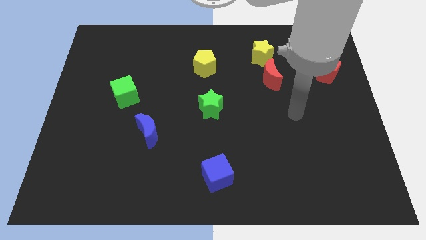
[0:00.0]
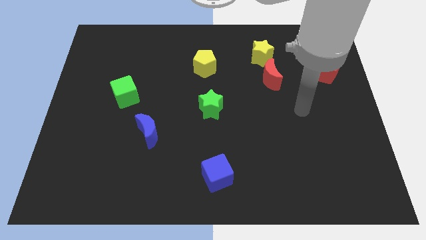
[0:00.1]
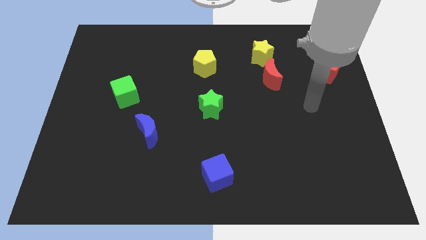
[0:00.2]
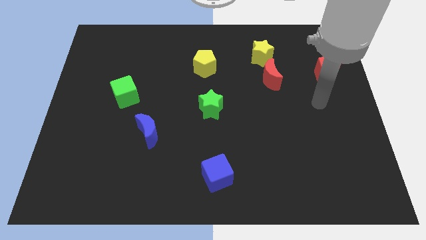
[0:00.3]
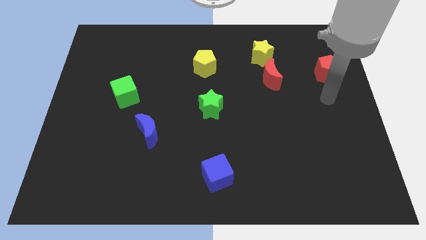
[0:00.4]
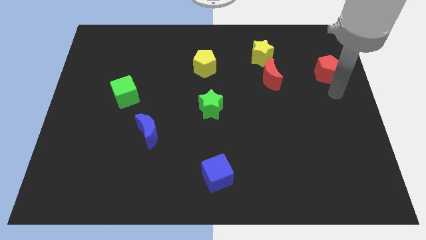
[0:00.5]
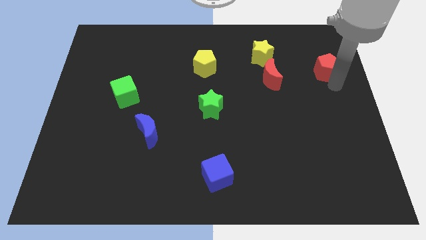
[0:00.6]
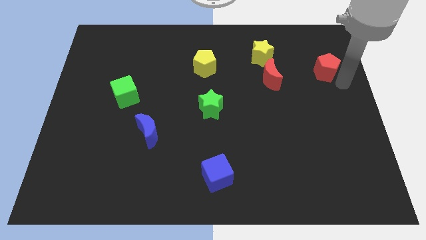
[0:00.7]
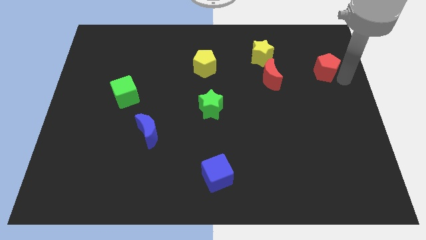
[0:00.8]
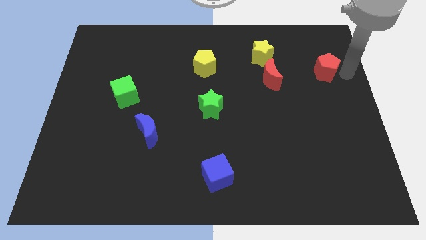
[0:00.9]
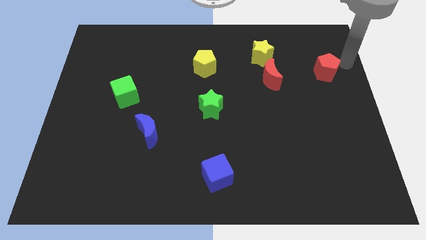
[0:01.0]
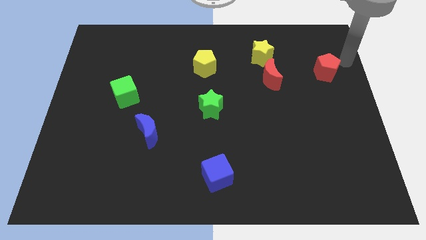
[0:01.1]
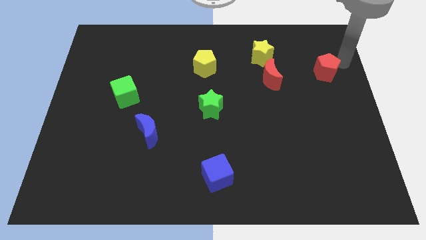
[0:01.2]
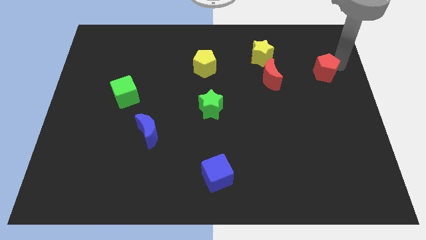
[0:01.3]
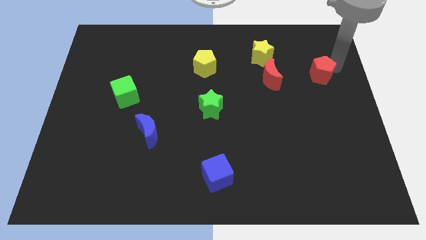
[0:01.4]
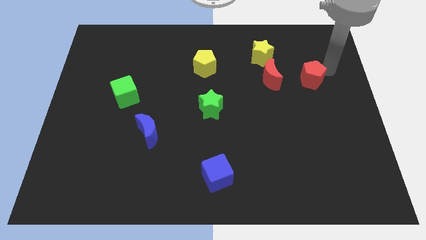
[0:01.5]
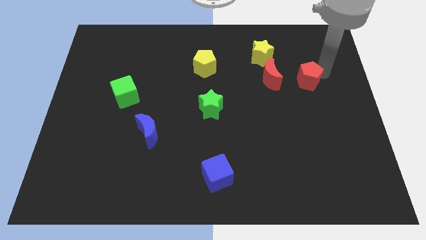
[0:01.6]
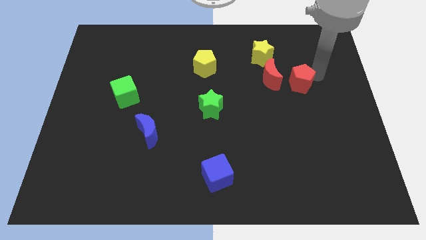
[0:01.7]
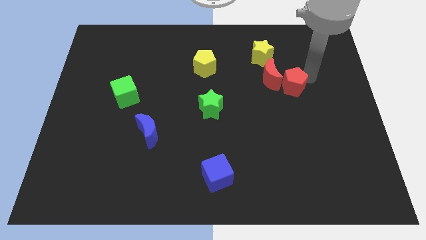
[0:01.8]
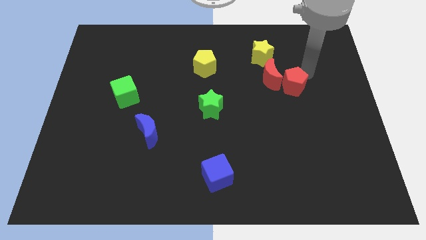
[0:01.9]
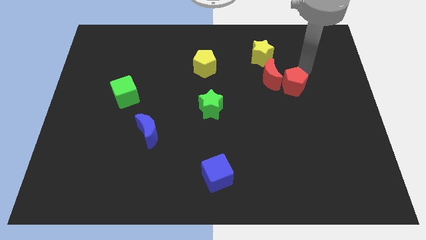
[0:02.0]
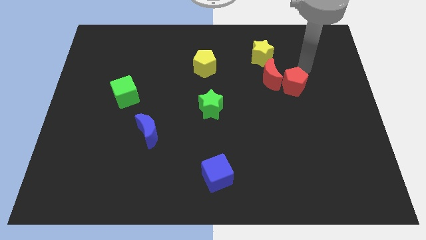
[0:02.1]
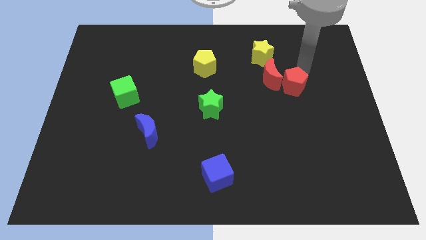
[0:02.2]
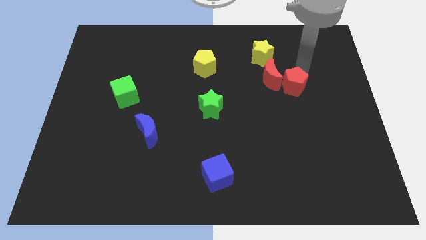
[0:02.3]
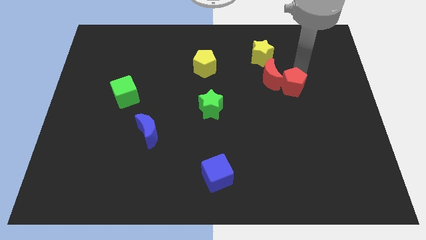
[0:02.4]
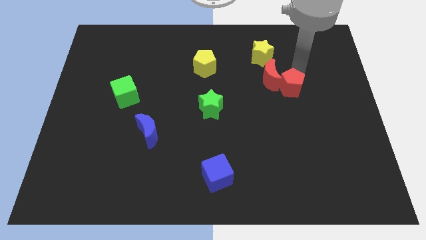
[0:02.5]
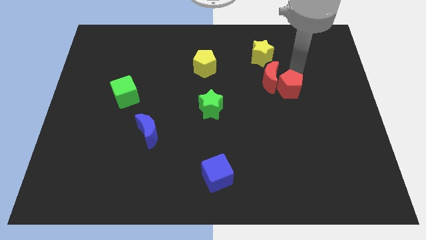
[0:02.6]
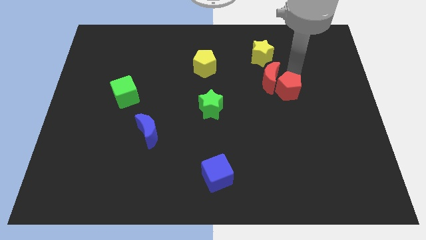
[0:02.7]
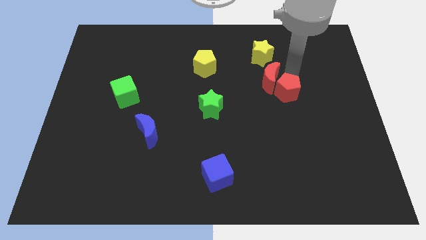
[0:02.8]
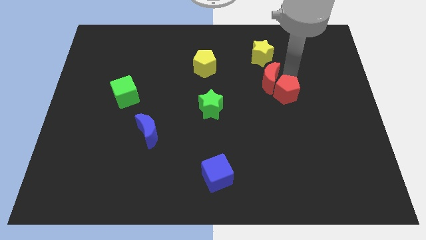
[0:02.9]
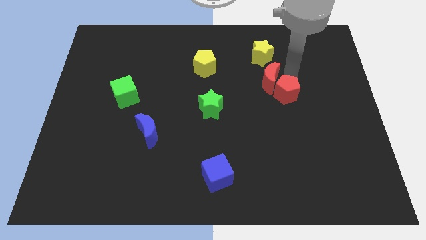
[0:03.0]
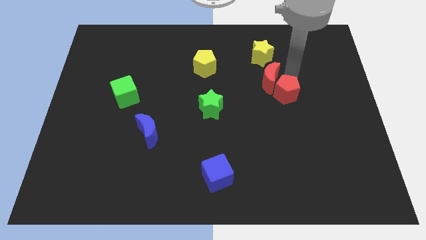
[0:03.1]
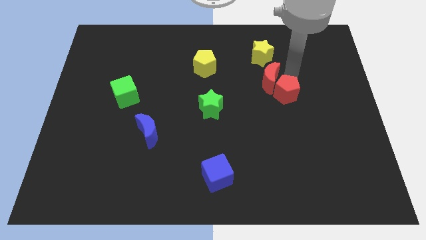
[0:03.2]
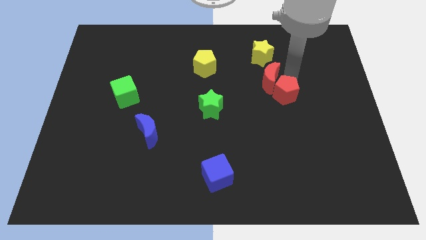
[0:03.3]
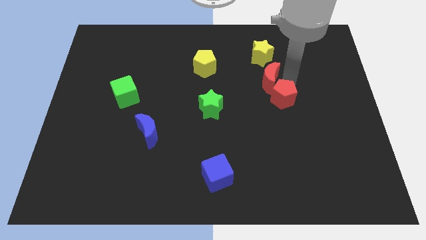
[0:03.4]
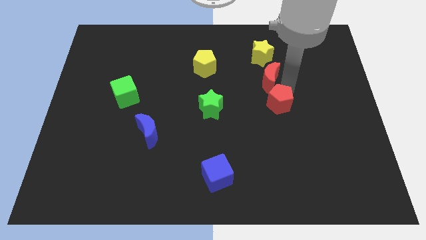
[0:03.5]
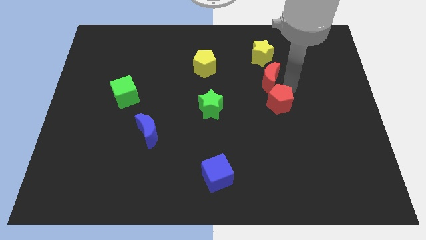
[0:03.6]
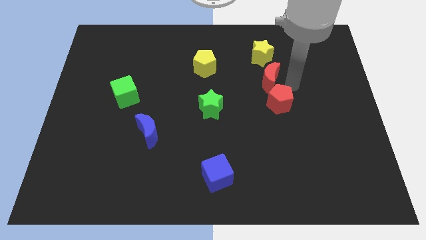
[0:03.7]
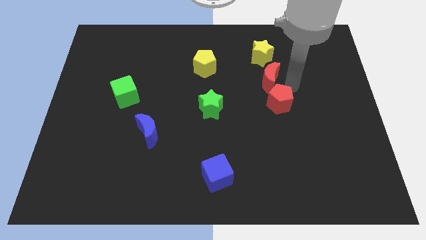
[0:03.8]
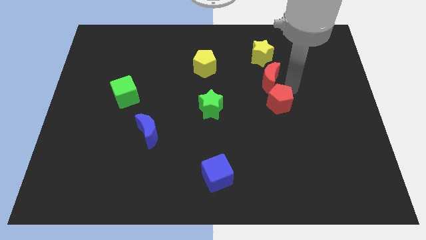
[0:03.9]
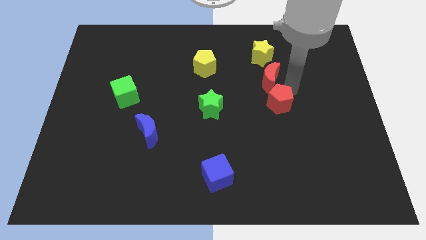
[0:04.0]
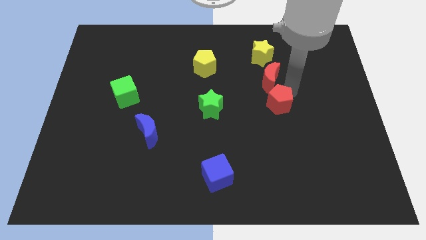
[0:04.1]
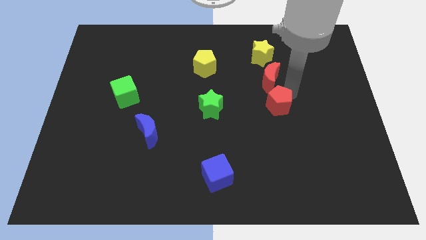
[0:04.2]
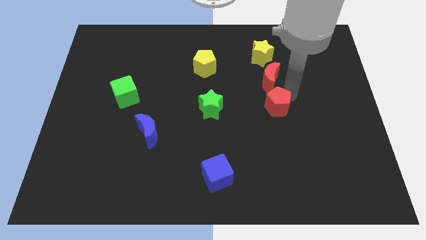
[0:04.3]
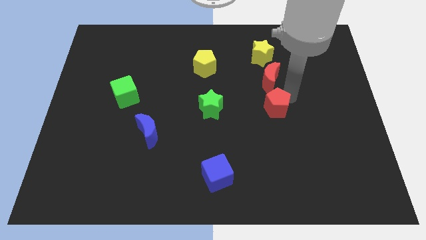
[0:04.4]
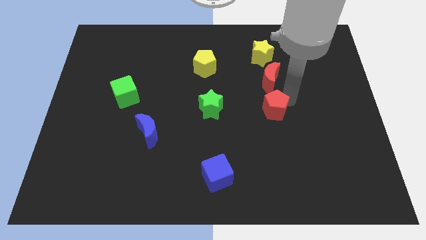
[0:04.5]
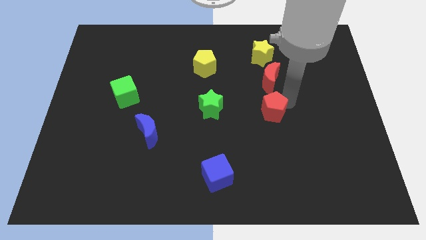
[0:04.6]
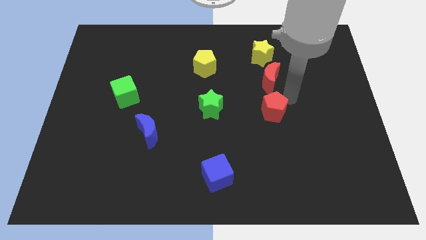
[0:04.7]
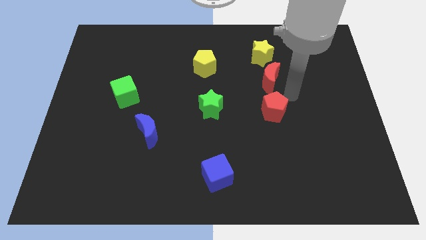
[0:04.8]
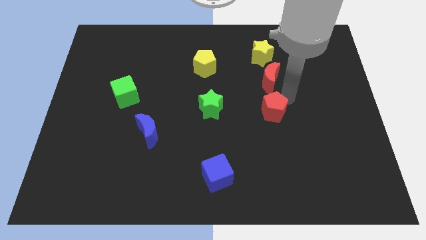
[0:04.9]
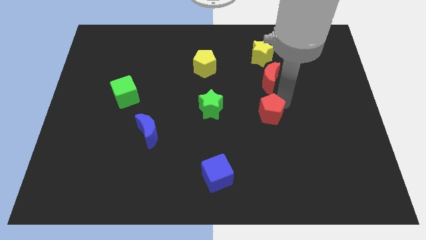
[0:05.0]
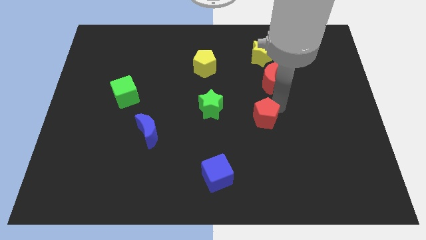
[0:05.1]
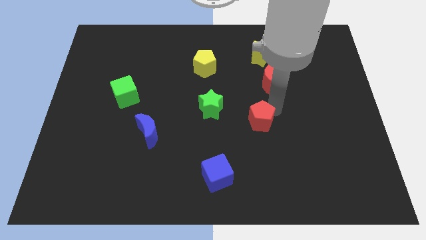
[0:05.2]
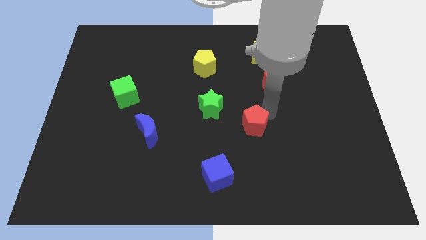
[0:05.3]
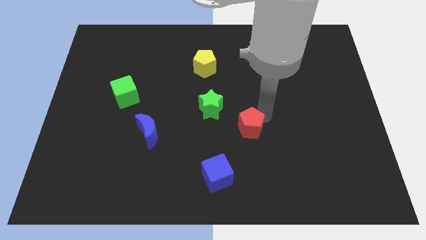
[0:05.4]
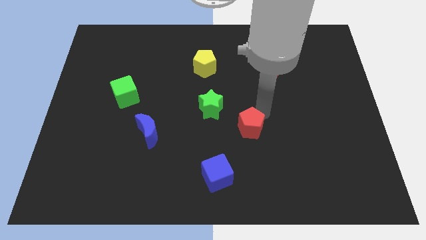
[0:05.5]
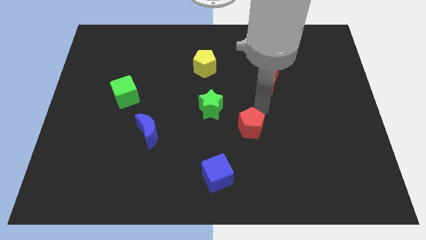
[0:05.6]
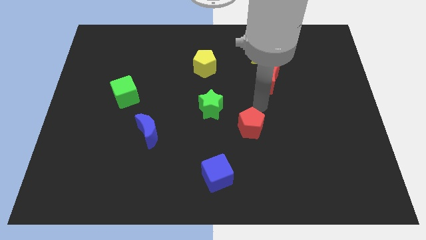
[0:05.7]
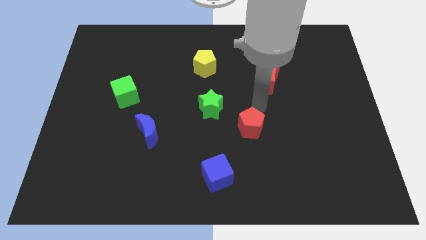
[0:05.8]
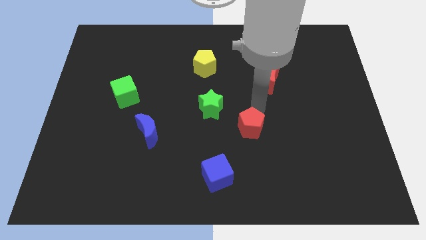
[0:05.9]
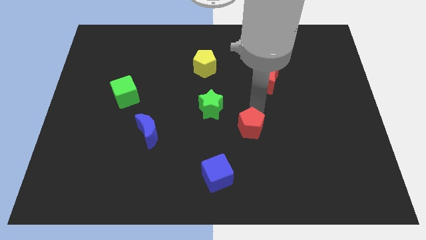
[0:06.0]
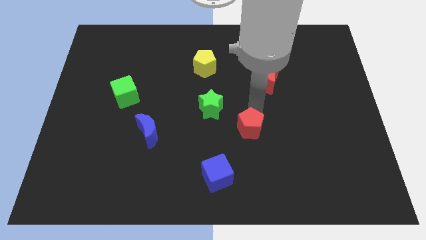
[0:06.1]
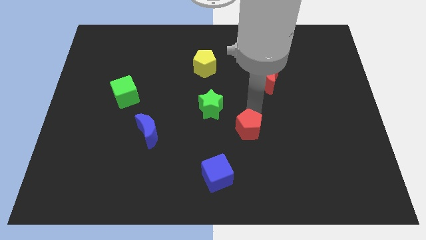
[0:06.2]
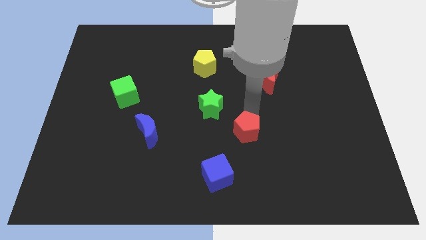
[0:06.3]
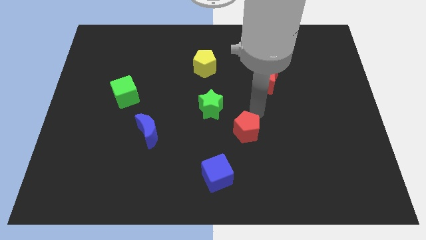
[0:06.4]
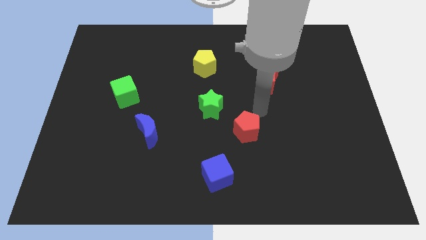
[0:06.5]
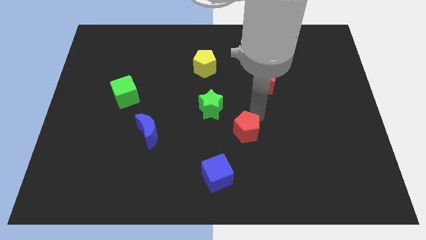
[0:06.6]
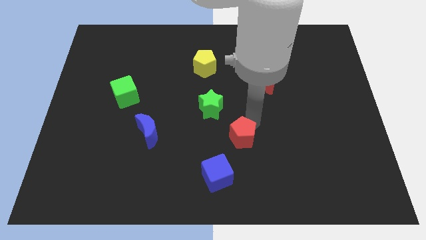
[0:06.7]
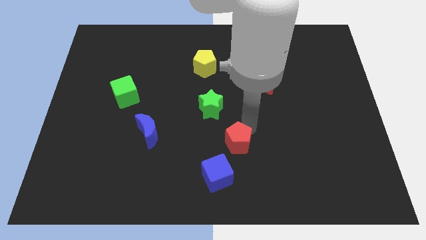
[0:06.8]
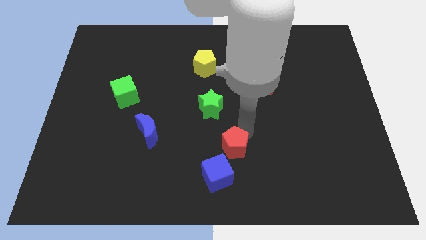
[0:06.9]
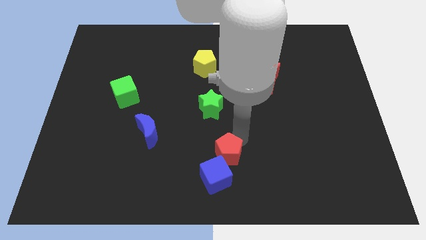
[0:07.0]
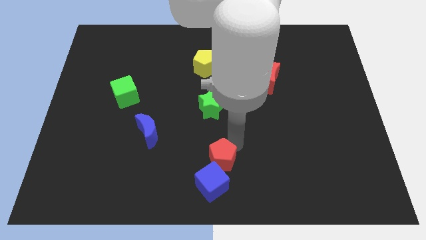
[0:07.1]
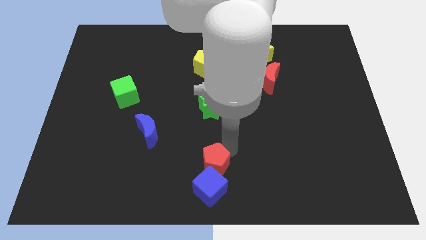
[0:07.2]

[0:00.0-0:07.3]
slide the red pentagon next to the blue cube
